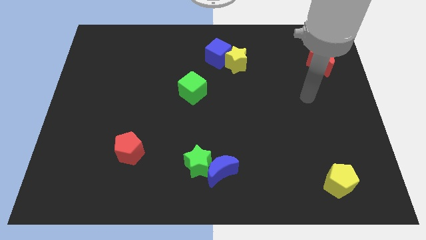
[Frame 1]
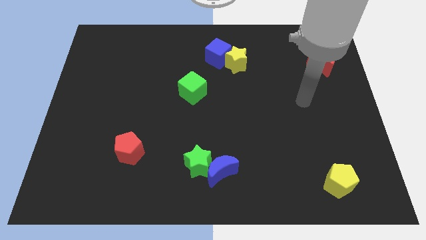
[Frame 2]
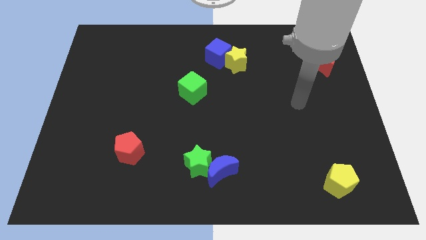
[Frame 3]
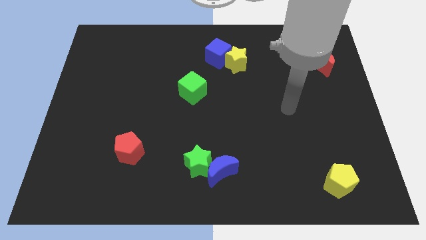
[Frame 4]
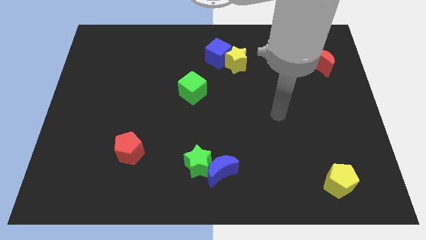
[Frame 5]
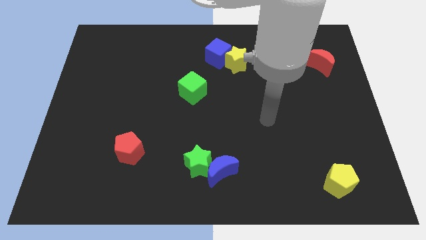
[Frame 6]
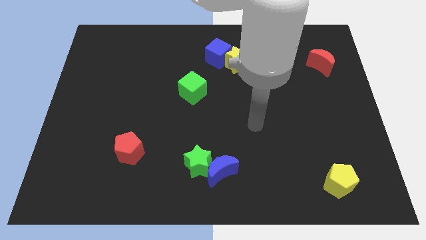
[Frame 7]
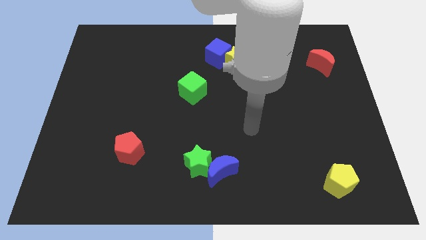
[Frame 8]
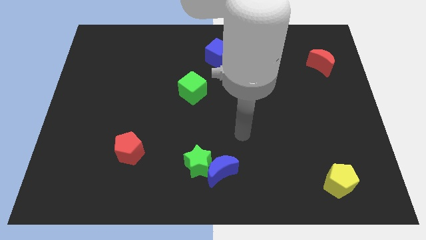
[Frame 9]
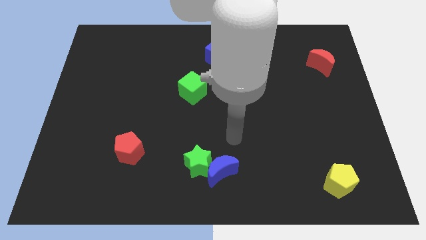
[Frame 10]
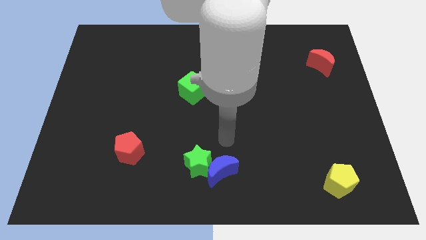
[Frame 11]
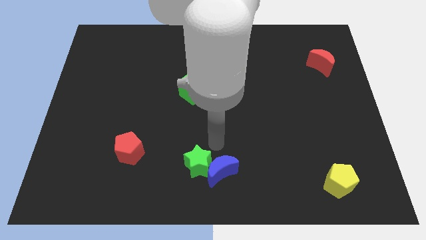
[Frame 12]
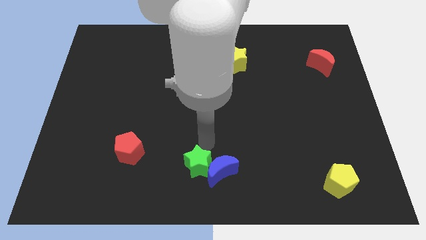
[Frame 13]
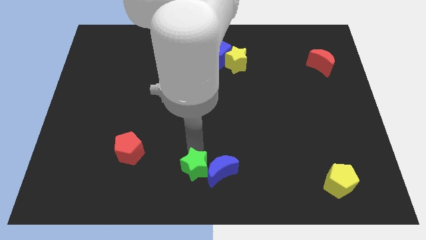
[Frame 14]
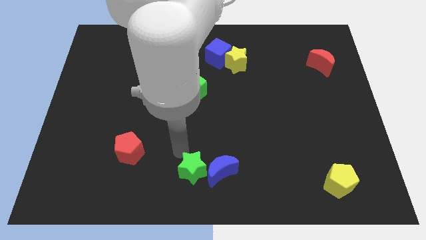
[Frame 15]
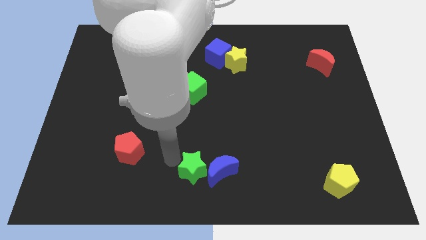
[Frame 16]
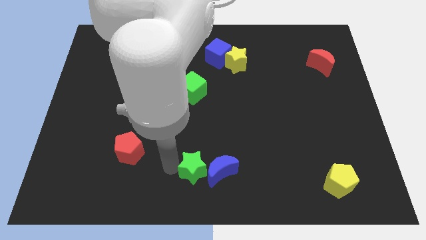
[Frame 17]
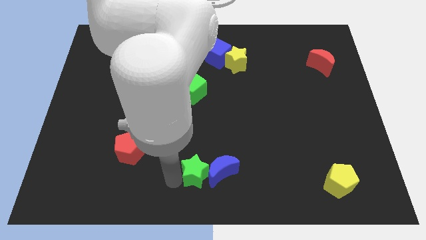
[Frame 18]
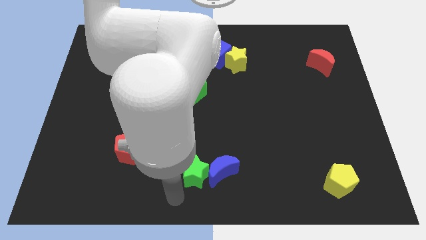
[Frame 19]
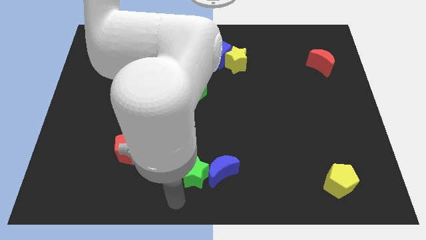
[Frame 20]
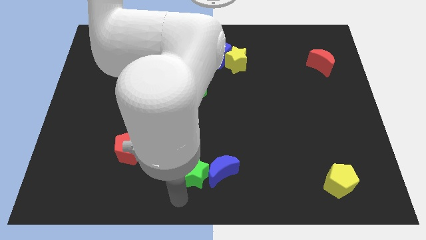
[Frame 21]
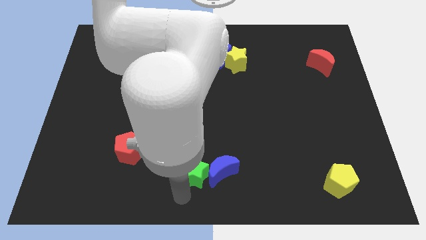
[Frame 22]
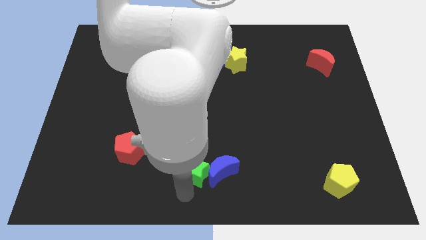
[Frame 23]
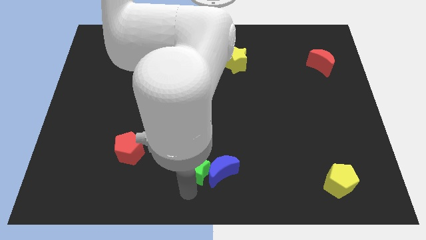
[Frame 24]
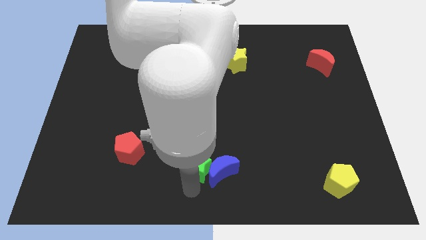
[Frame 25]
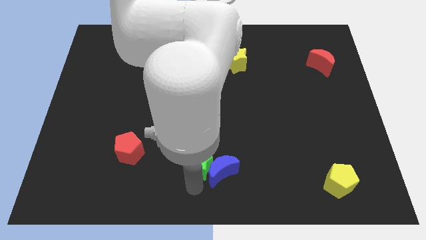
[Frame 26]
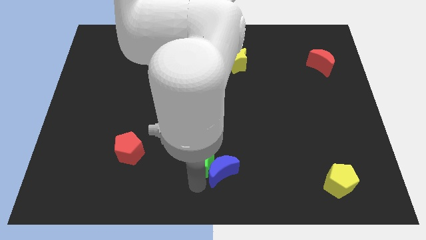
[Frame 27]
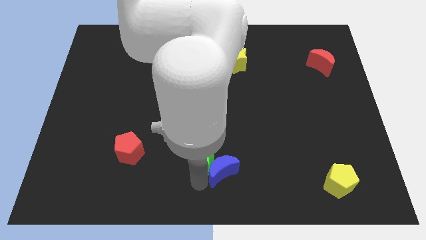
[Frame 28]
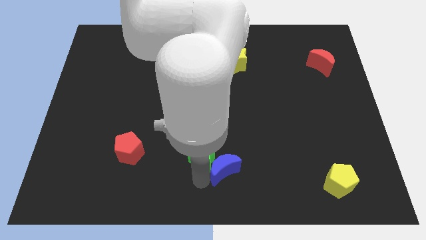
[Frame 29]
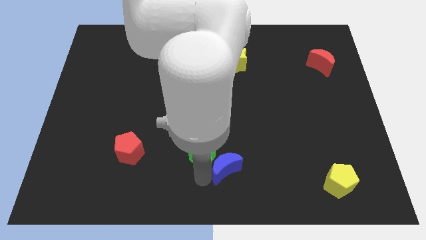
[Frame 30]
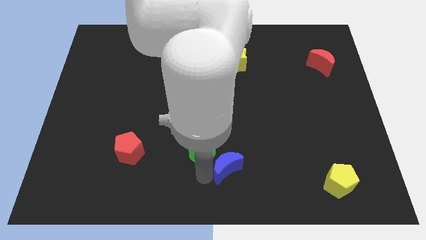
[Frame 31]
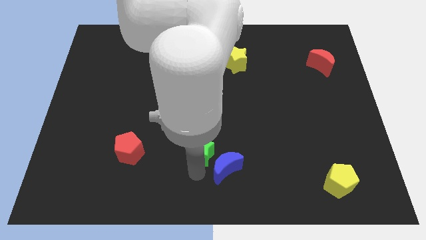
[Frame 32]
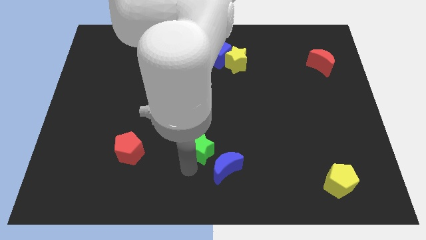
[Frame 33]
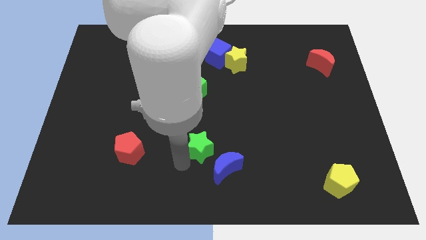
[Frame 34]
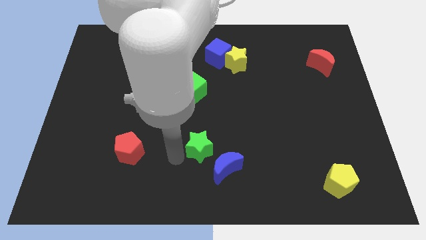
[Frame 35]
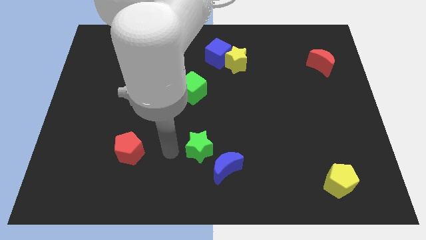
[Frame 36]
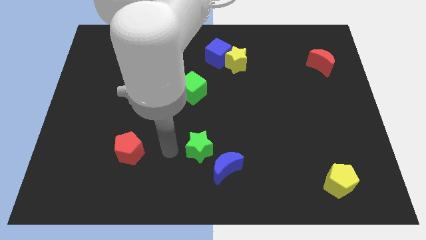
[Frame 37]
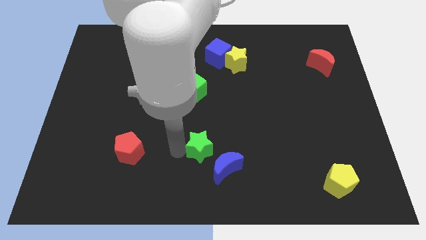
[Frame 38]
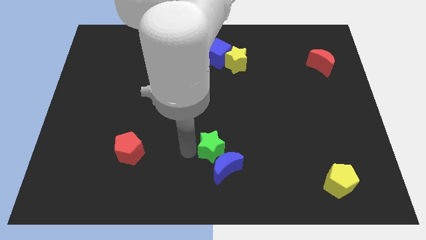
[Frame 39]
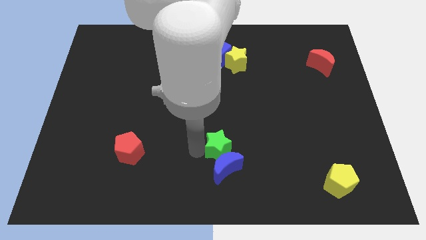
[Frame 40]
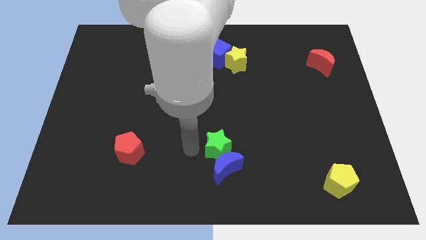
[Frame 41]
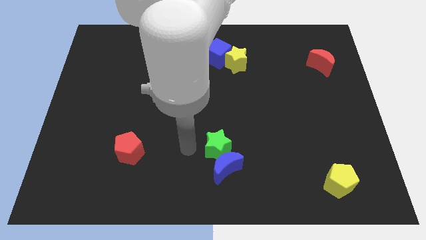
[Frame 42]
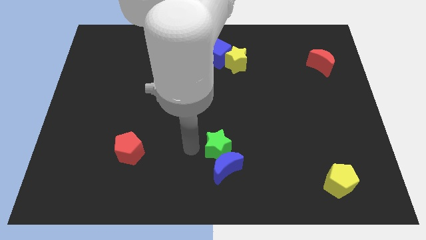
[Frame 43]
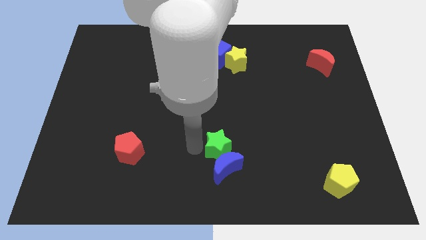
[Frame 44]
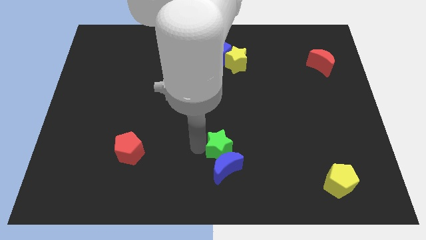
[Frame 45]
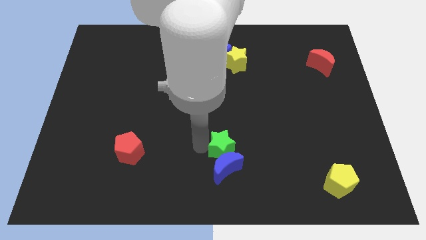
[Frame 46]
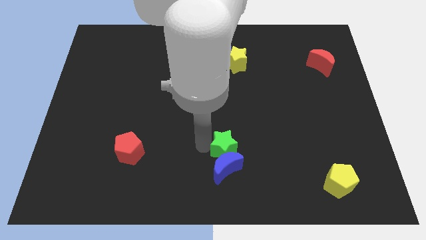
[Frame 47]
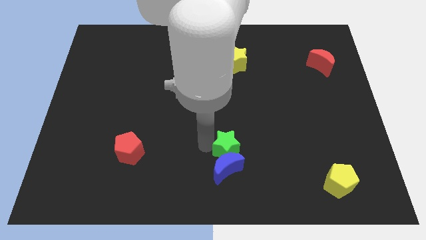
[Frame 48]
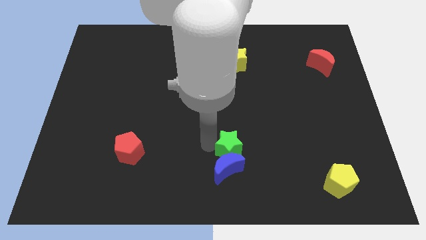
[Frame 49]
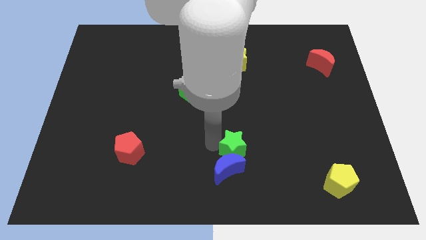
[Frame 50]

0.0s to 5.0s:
slide the green star to the right slightly

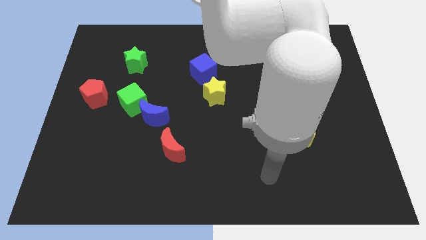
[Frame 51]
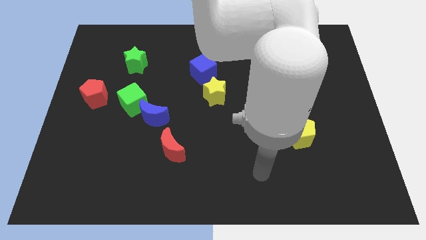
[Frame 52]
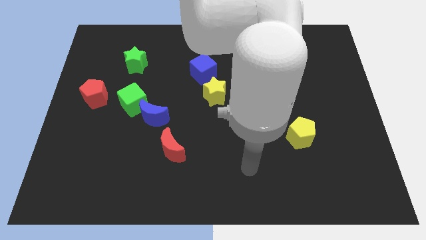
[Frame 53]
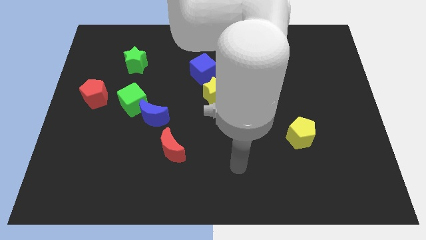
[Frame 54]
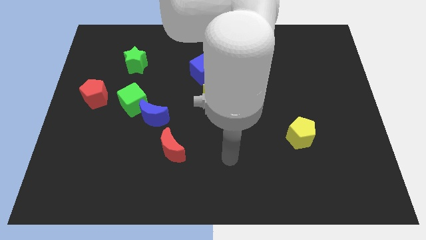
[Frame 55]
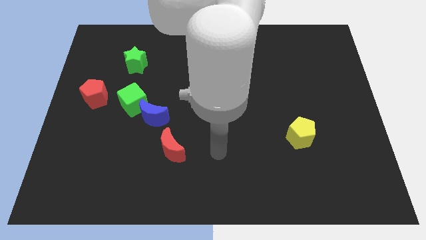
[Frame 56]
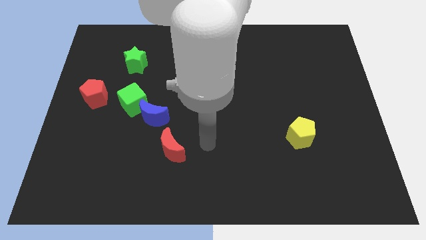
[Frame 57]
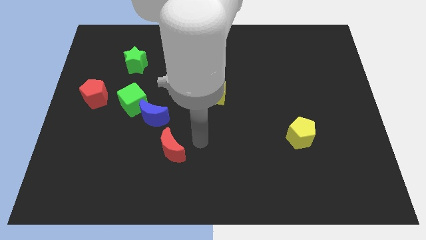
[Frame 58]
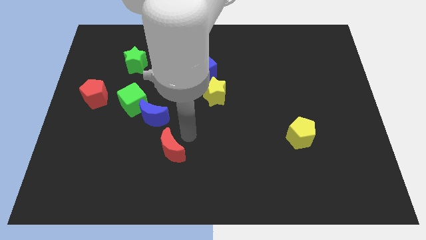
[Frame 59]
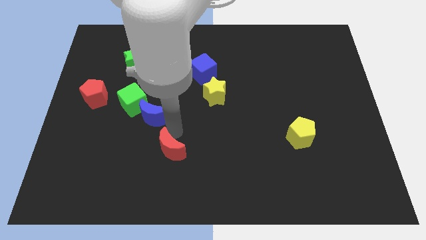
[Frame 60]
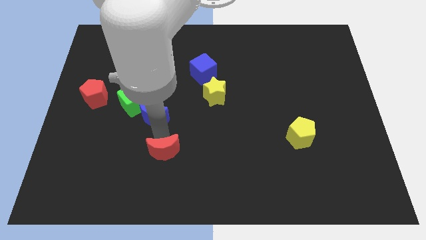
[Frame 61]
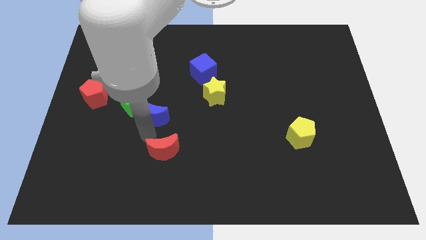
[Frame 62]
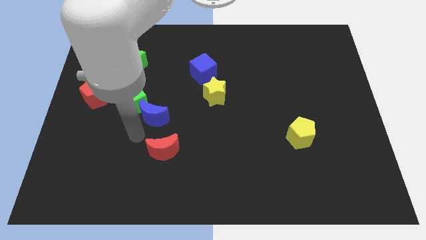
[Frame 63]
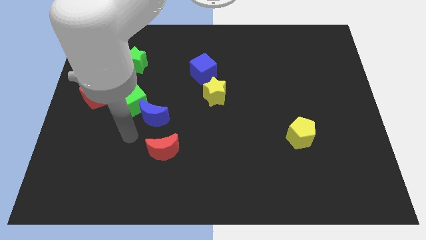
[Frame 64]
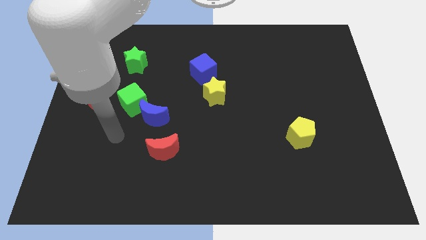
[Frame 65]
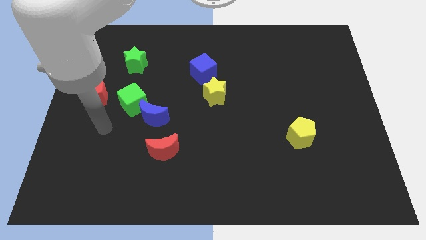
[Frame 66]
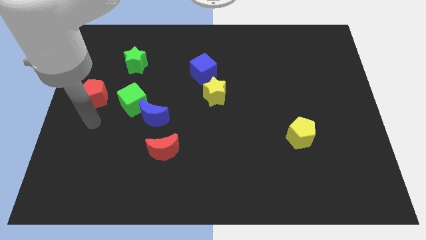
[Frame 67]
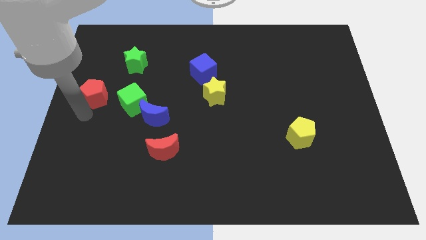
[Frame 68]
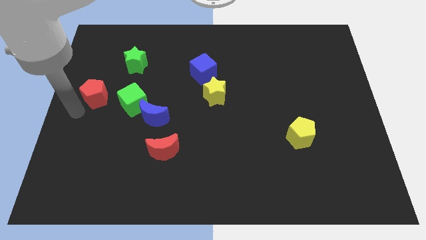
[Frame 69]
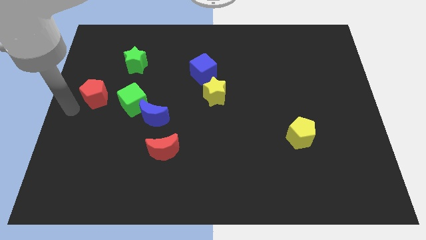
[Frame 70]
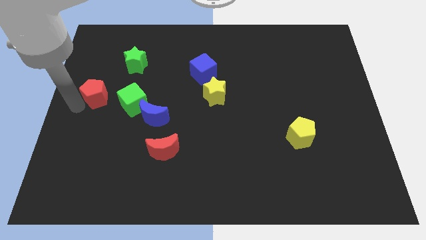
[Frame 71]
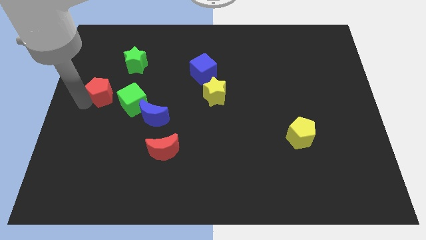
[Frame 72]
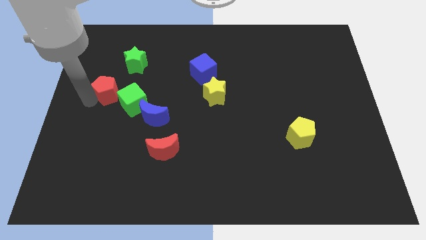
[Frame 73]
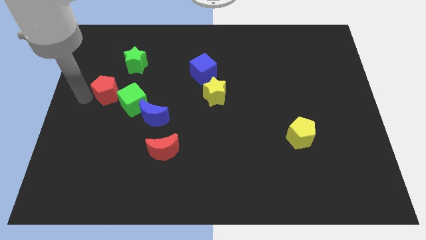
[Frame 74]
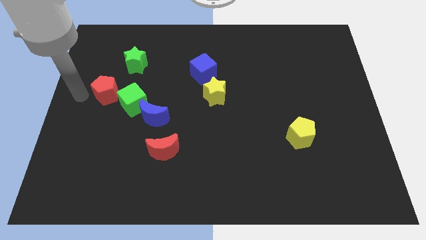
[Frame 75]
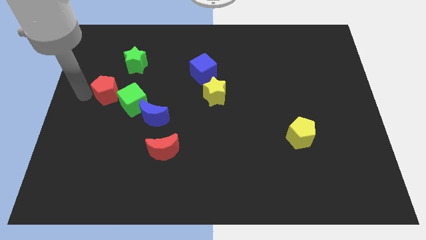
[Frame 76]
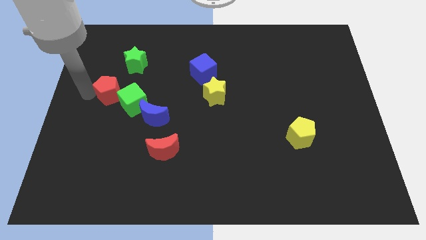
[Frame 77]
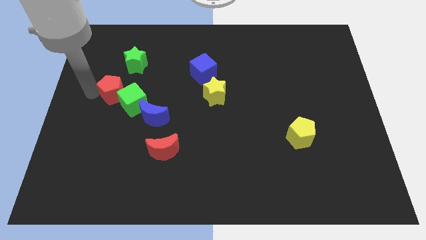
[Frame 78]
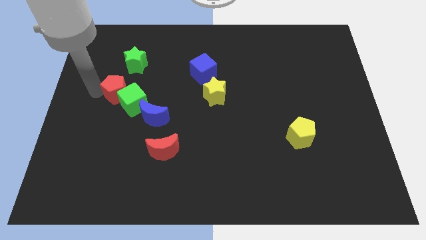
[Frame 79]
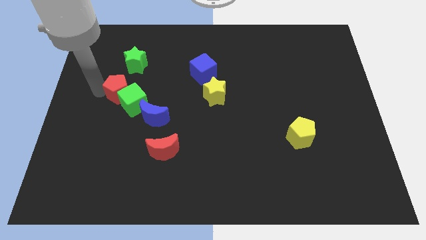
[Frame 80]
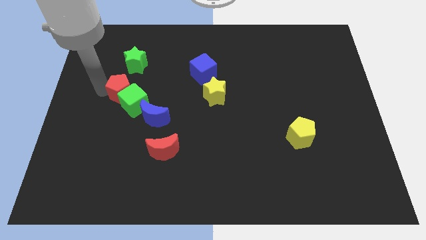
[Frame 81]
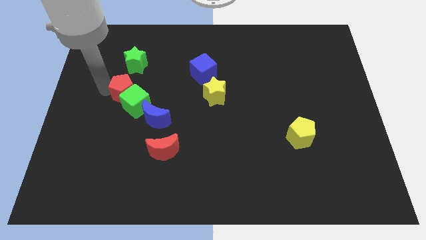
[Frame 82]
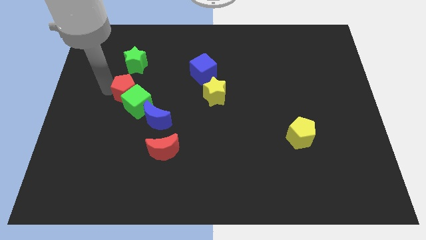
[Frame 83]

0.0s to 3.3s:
slightly push the red pentagon right
